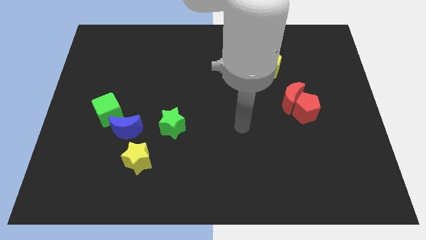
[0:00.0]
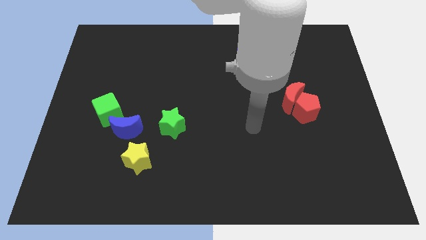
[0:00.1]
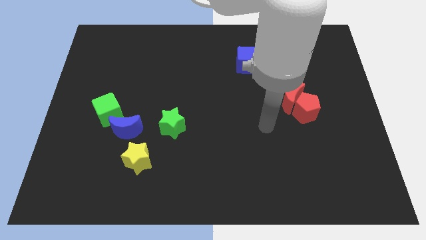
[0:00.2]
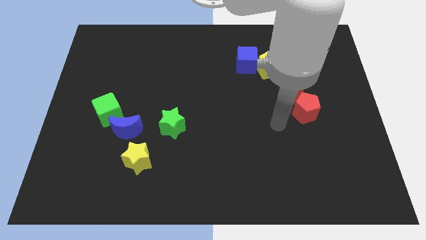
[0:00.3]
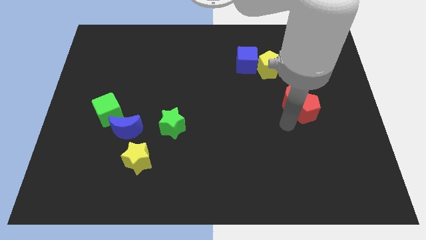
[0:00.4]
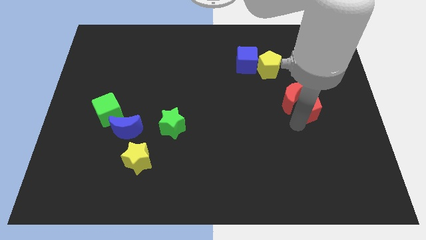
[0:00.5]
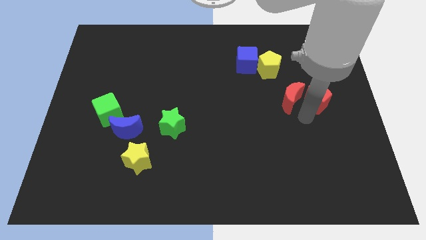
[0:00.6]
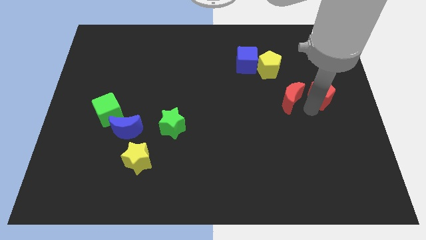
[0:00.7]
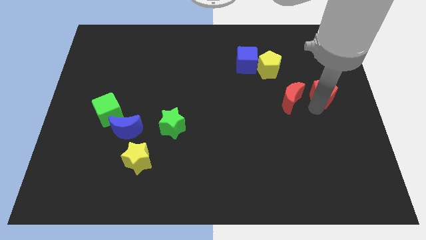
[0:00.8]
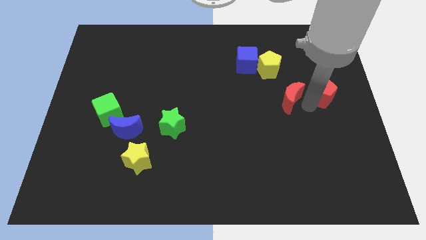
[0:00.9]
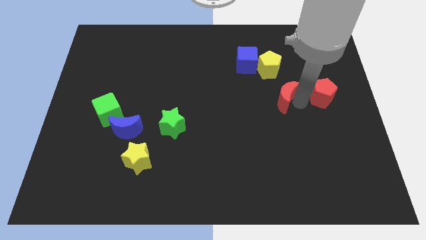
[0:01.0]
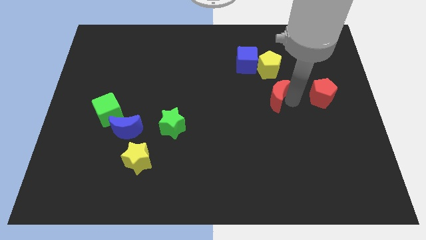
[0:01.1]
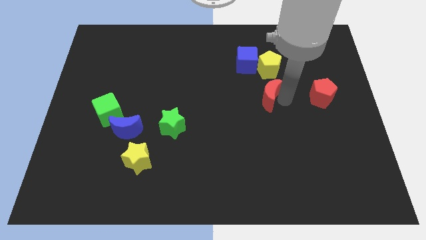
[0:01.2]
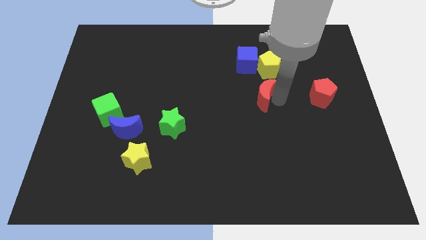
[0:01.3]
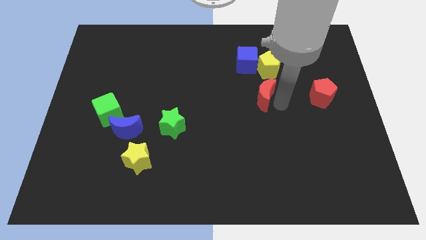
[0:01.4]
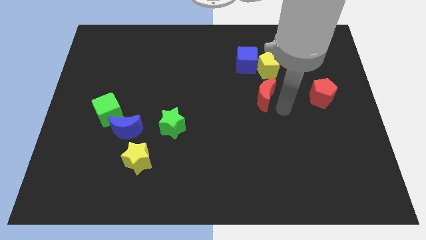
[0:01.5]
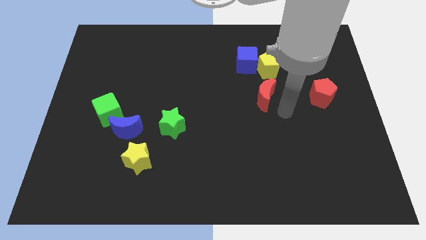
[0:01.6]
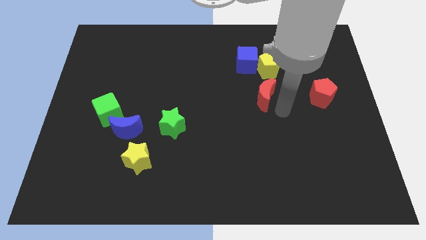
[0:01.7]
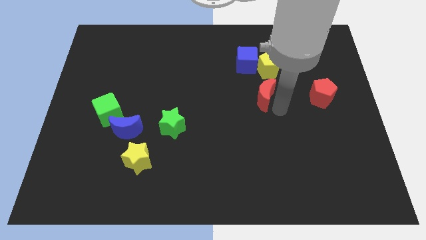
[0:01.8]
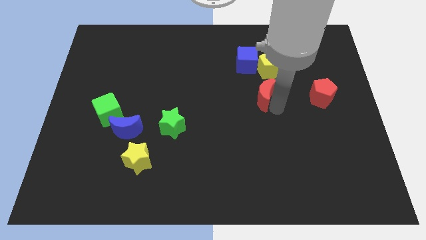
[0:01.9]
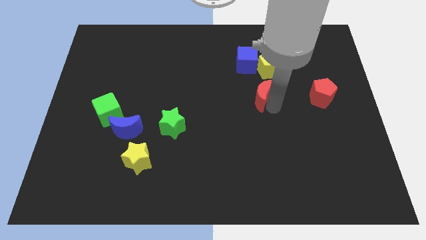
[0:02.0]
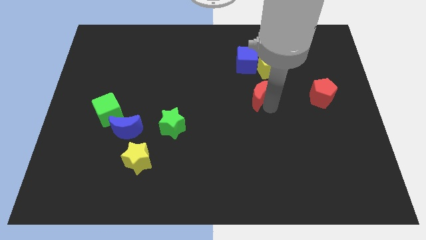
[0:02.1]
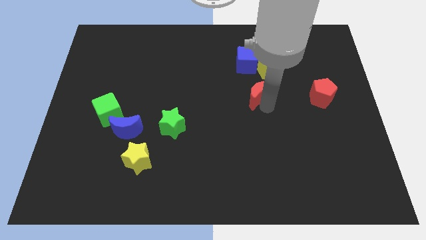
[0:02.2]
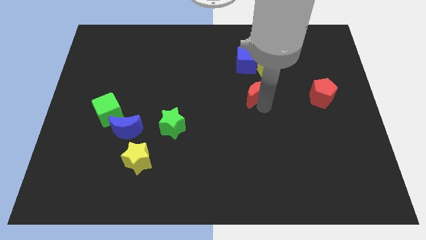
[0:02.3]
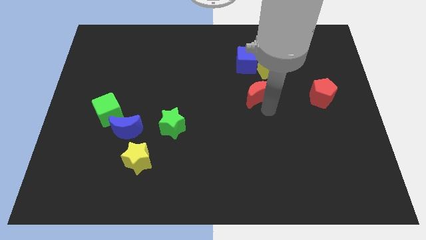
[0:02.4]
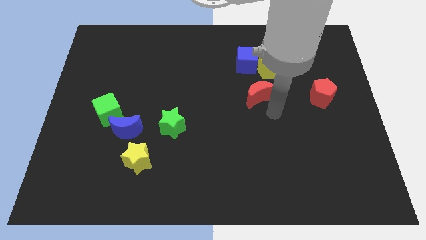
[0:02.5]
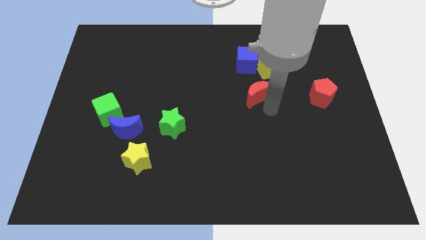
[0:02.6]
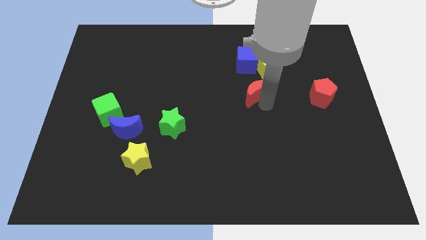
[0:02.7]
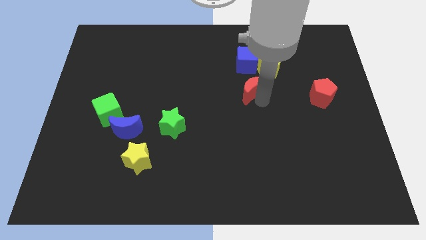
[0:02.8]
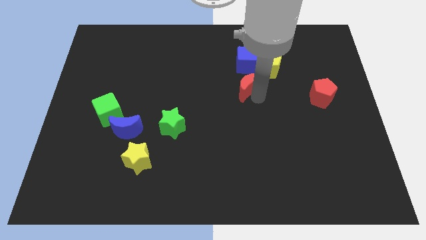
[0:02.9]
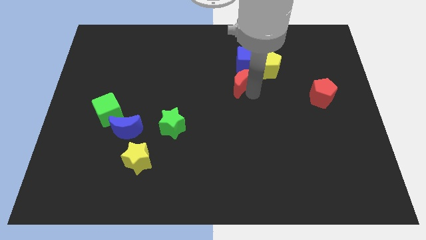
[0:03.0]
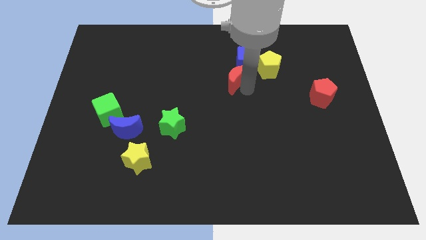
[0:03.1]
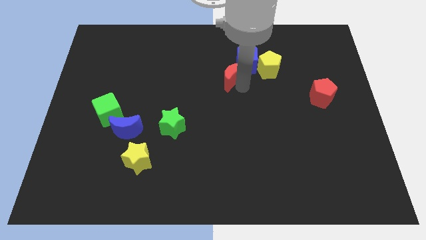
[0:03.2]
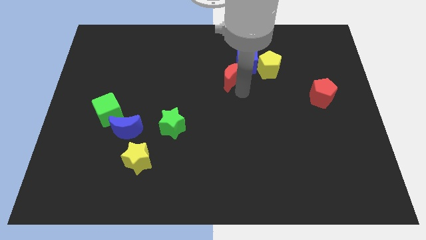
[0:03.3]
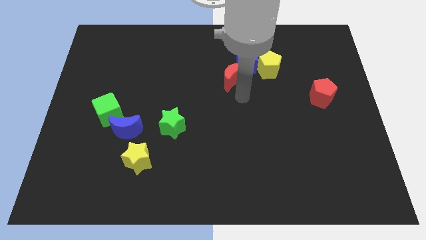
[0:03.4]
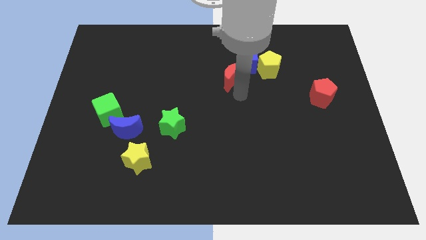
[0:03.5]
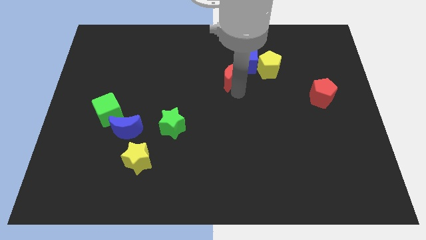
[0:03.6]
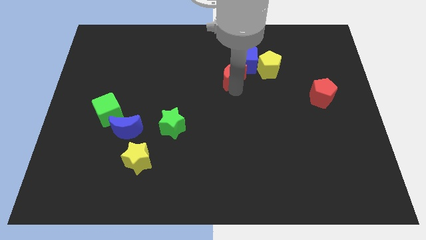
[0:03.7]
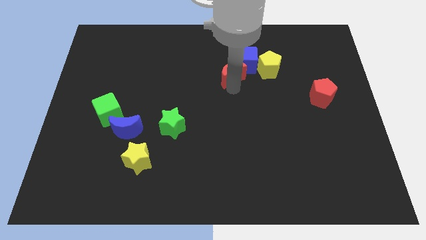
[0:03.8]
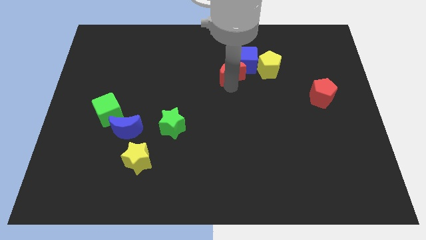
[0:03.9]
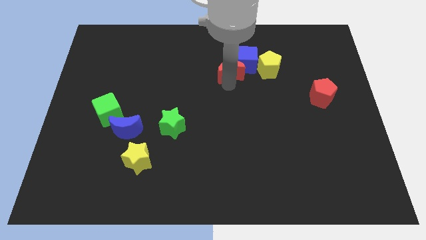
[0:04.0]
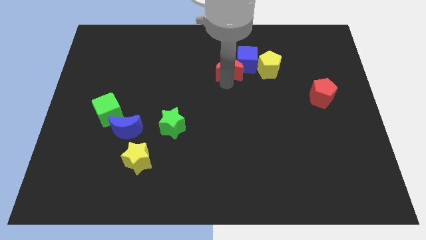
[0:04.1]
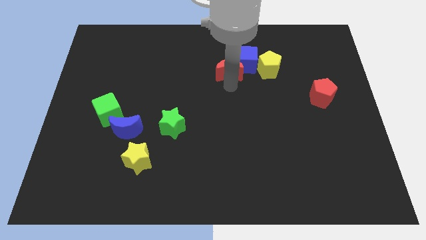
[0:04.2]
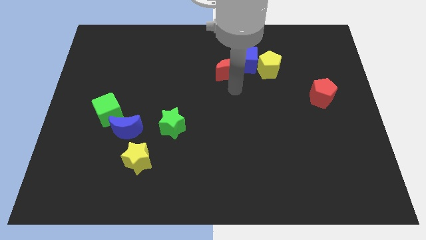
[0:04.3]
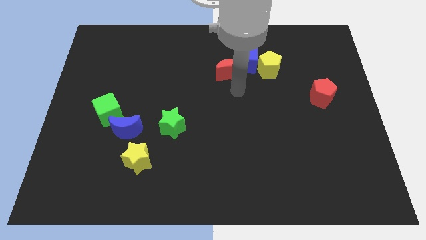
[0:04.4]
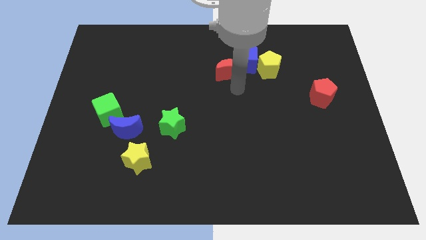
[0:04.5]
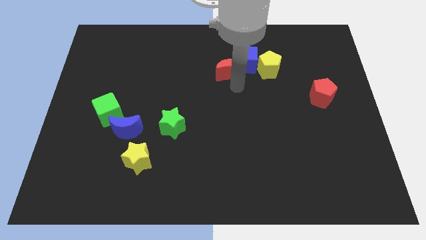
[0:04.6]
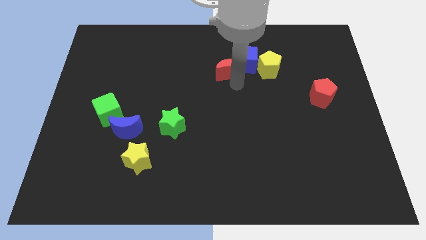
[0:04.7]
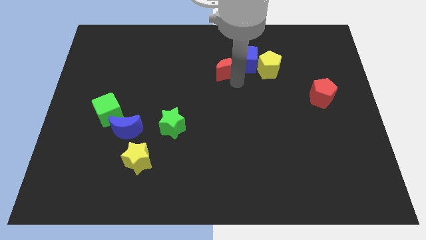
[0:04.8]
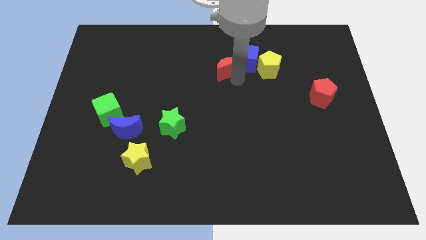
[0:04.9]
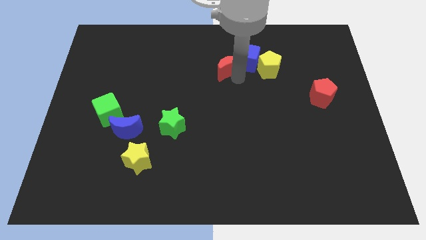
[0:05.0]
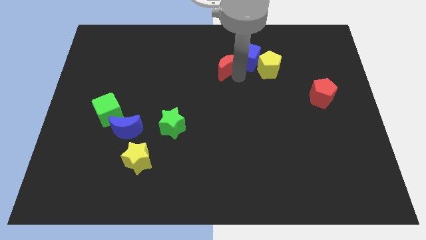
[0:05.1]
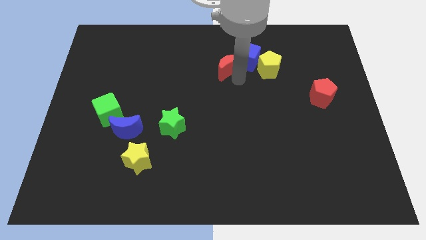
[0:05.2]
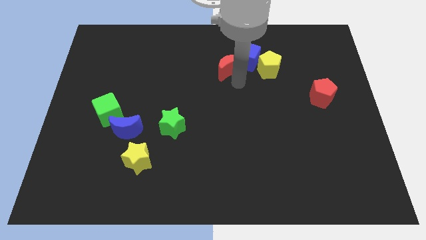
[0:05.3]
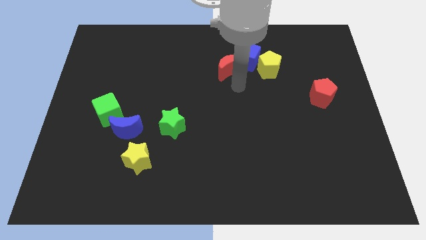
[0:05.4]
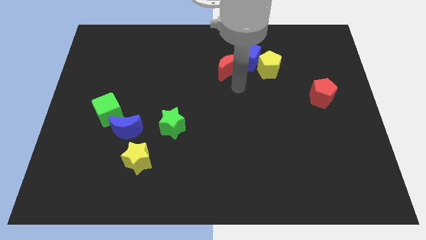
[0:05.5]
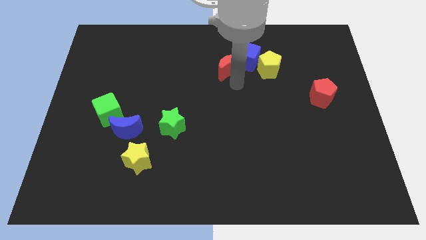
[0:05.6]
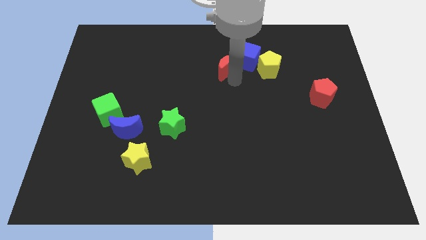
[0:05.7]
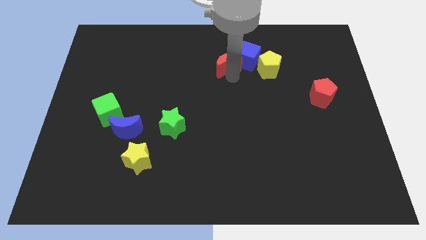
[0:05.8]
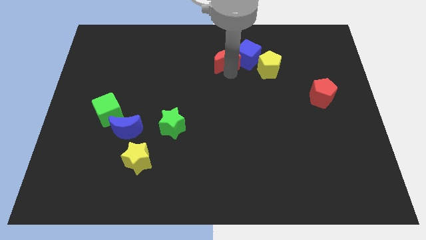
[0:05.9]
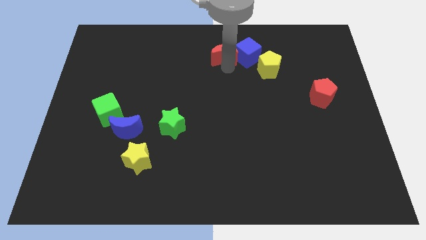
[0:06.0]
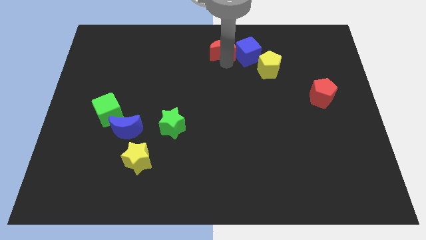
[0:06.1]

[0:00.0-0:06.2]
put the red moon to the towards your base

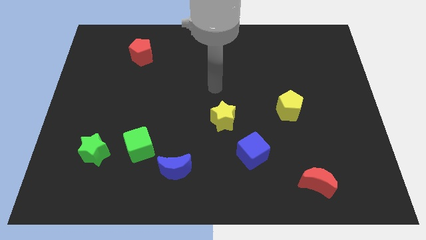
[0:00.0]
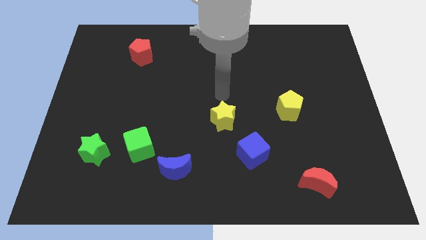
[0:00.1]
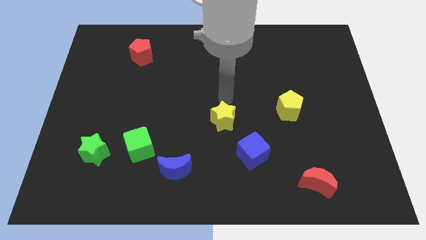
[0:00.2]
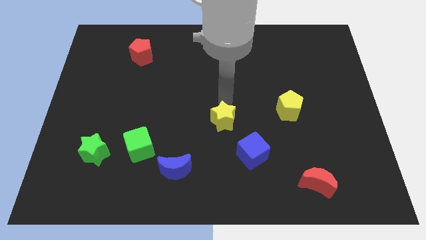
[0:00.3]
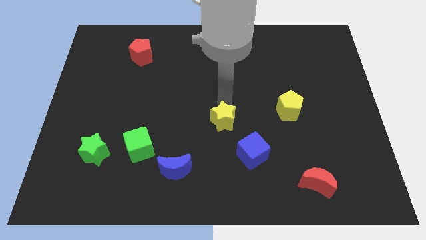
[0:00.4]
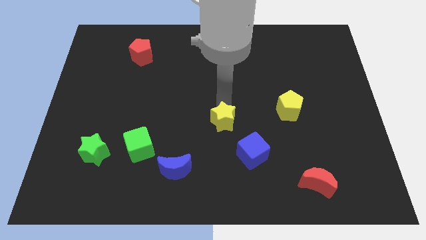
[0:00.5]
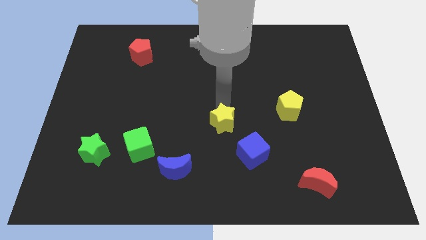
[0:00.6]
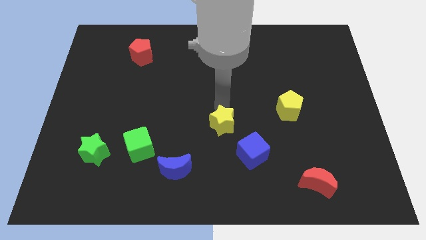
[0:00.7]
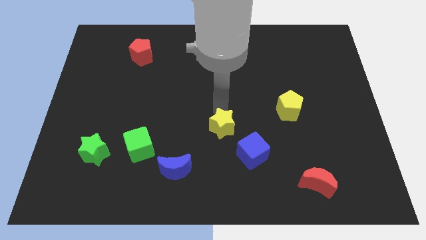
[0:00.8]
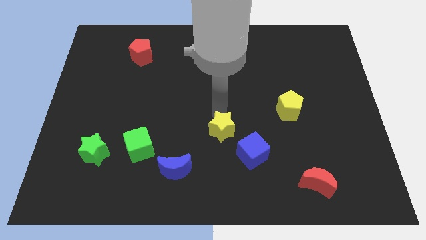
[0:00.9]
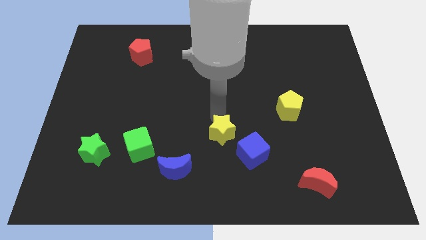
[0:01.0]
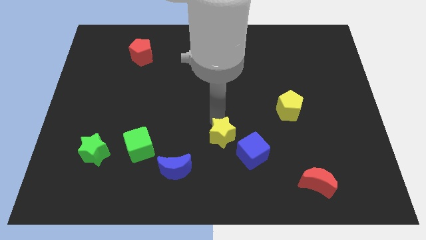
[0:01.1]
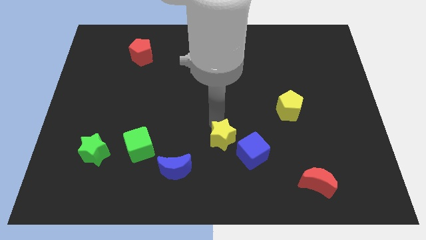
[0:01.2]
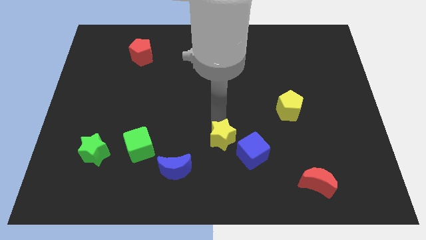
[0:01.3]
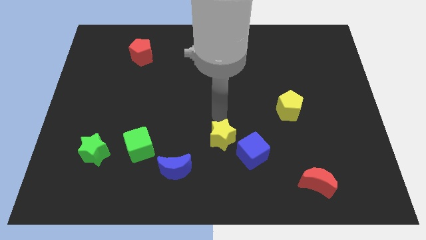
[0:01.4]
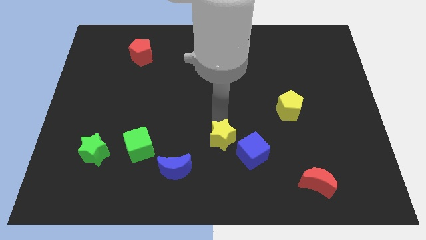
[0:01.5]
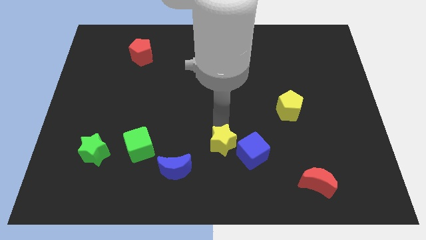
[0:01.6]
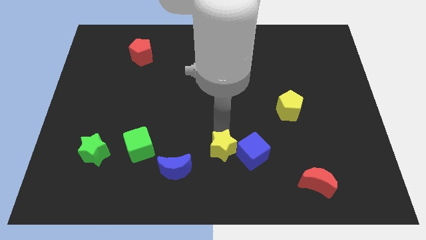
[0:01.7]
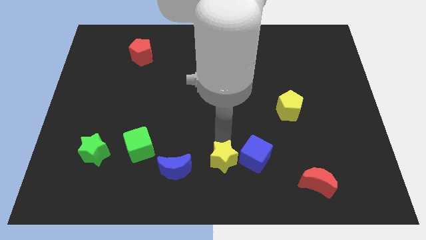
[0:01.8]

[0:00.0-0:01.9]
move the yellow star to the bottom
